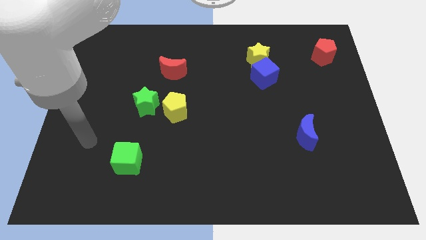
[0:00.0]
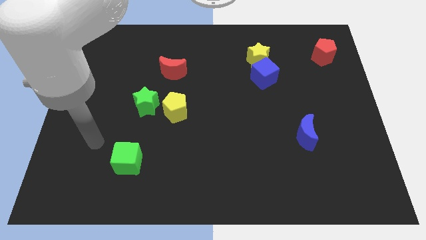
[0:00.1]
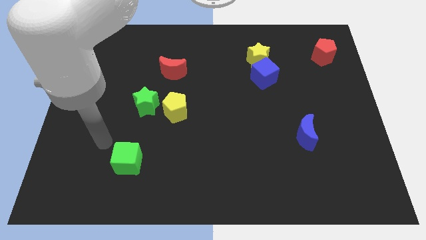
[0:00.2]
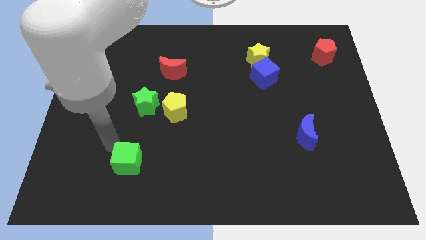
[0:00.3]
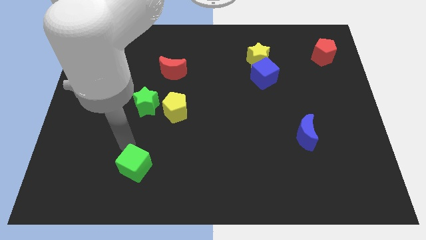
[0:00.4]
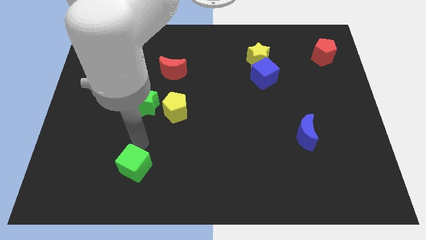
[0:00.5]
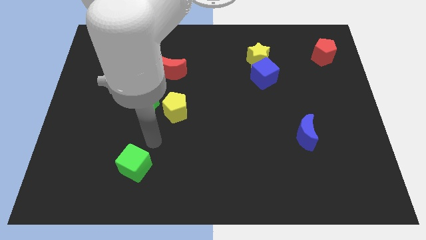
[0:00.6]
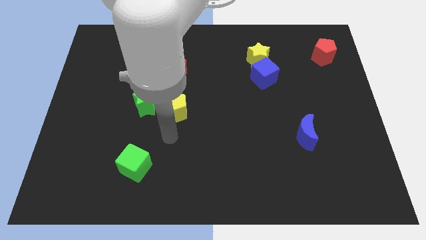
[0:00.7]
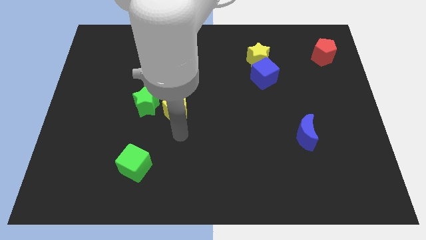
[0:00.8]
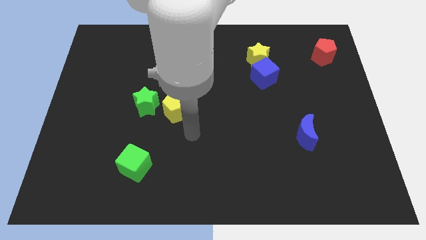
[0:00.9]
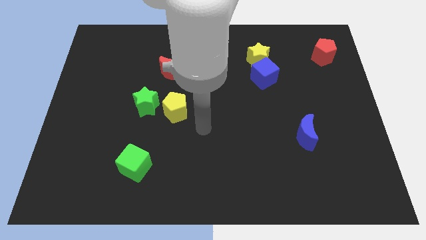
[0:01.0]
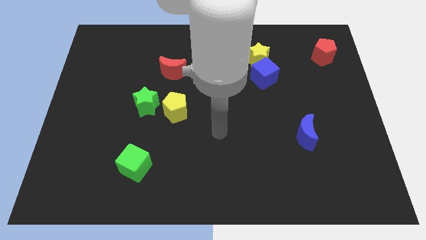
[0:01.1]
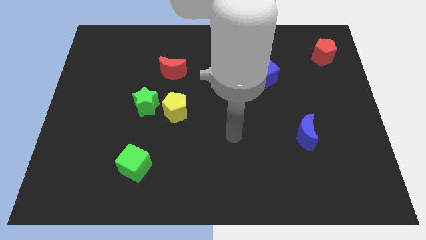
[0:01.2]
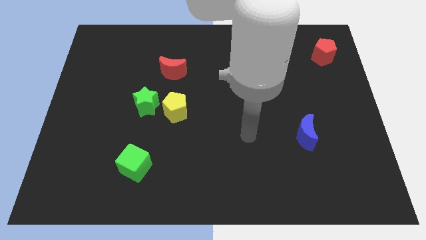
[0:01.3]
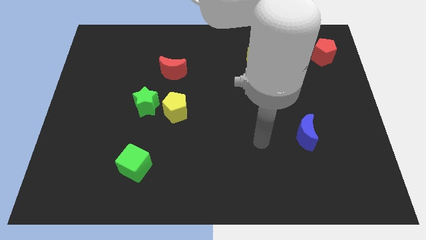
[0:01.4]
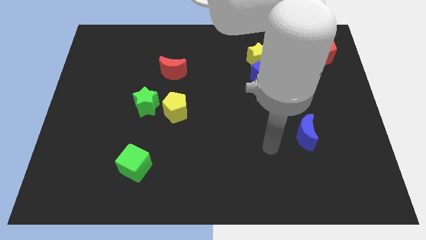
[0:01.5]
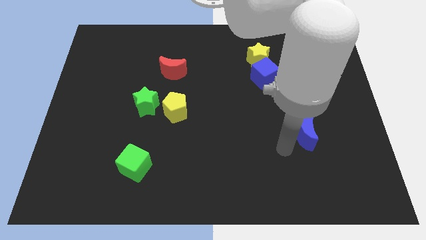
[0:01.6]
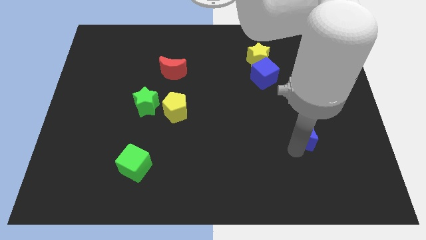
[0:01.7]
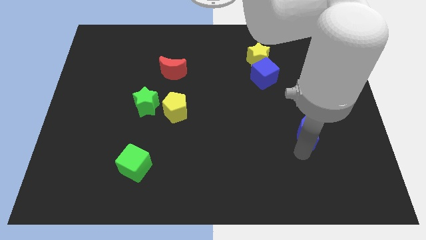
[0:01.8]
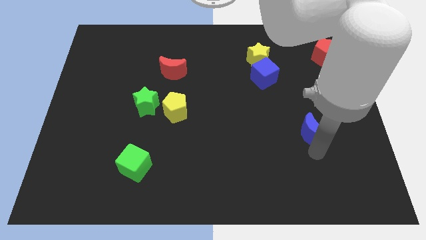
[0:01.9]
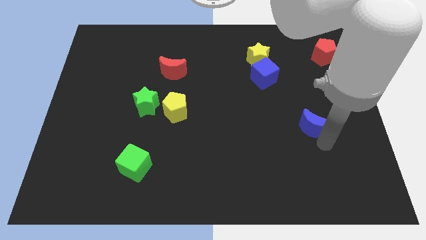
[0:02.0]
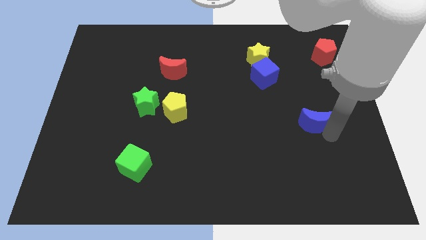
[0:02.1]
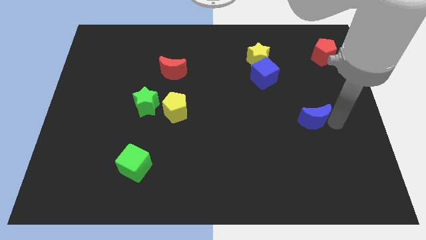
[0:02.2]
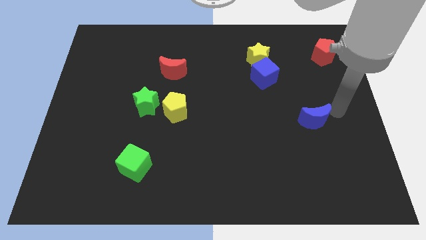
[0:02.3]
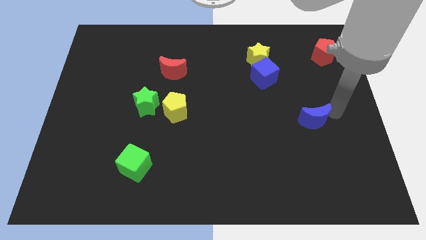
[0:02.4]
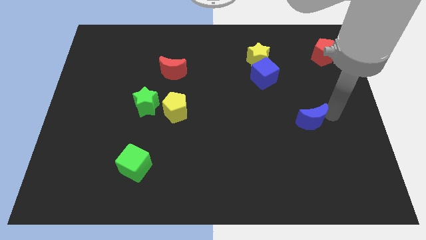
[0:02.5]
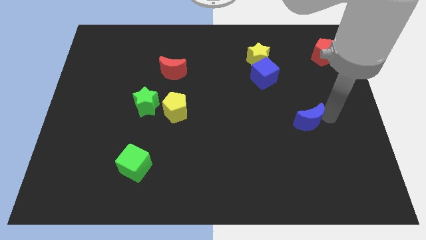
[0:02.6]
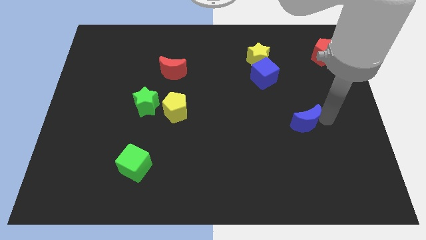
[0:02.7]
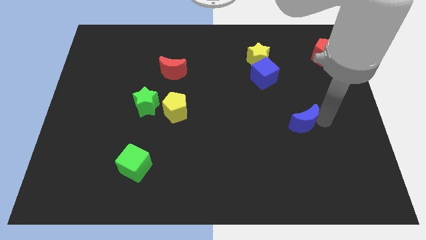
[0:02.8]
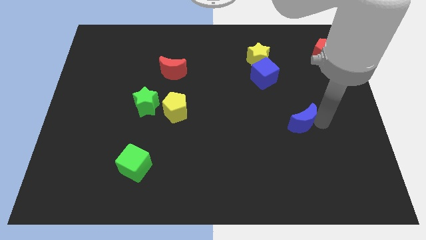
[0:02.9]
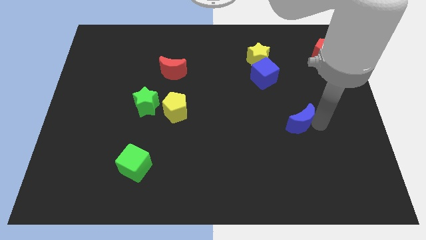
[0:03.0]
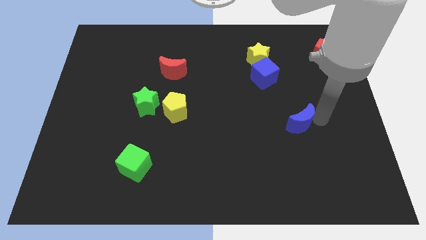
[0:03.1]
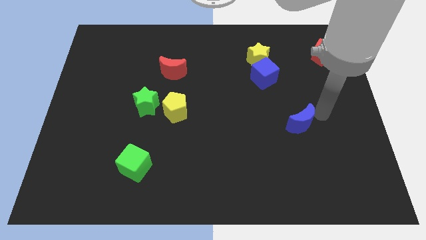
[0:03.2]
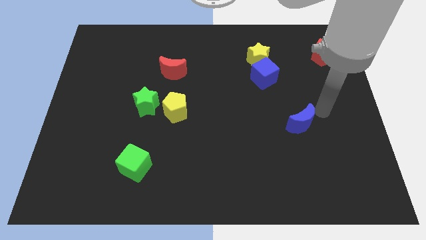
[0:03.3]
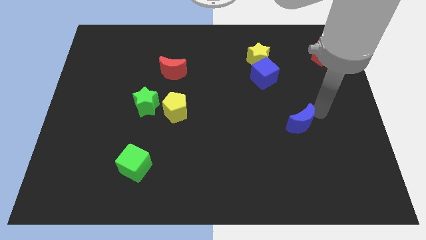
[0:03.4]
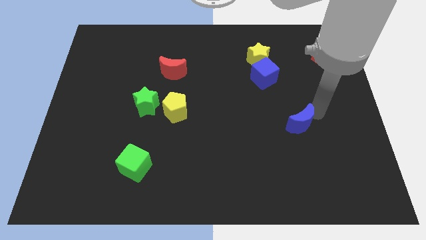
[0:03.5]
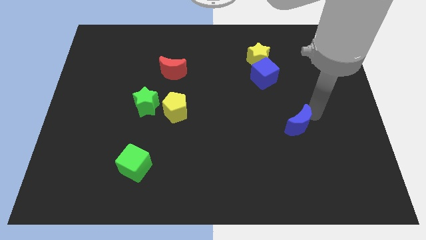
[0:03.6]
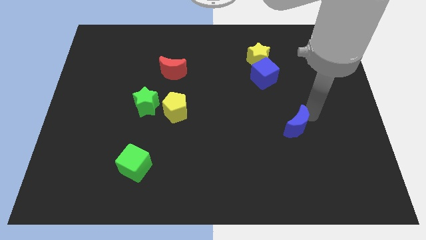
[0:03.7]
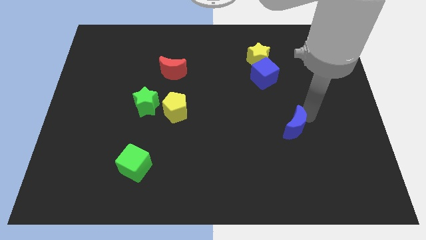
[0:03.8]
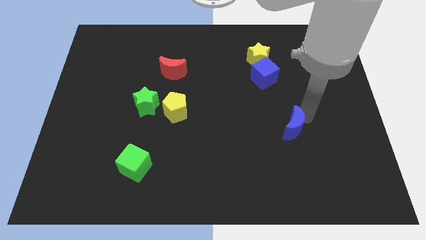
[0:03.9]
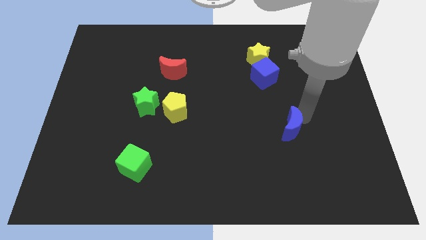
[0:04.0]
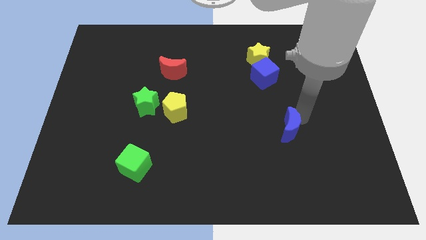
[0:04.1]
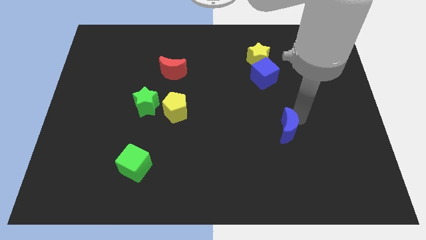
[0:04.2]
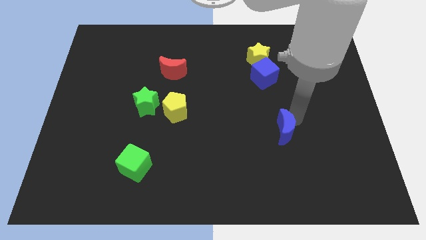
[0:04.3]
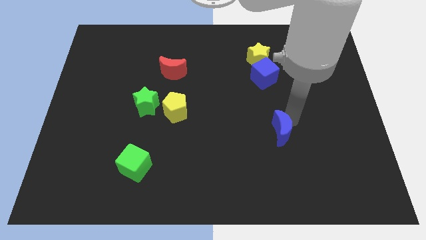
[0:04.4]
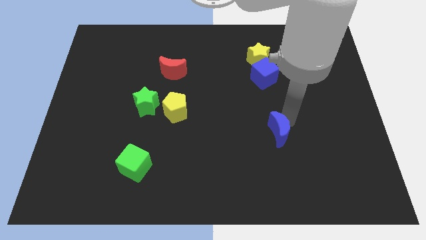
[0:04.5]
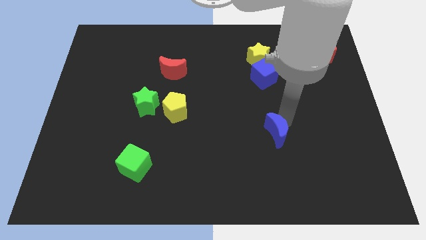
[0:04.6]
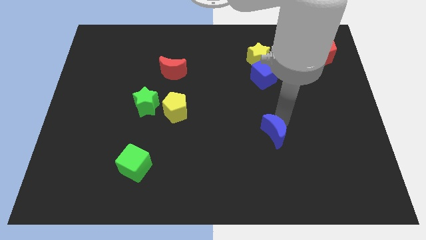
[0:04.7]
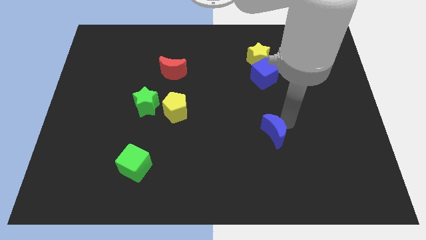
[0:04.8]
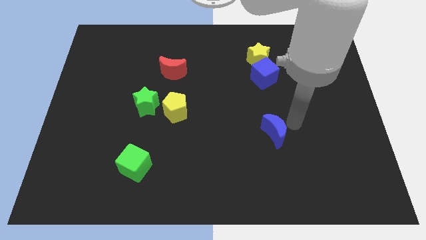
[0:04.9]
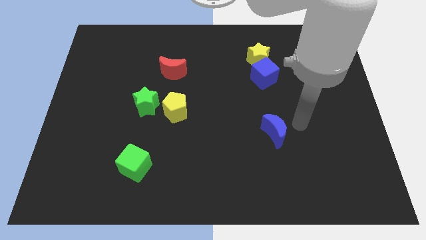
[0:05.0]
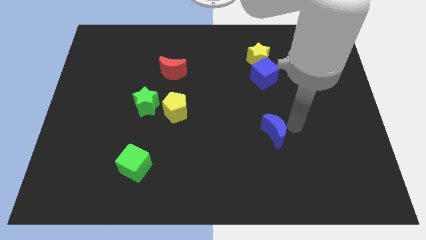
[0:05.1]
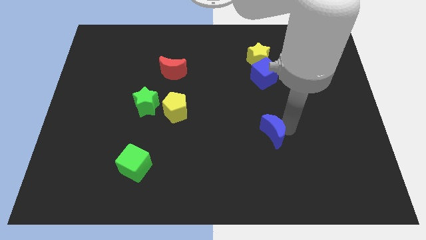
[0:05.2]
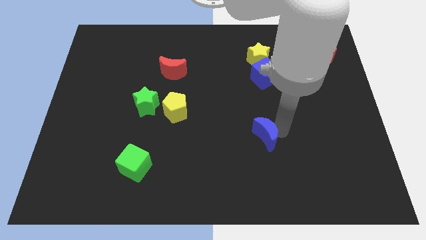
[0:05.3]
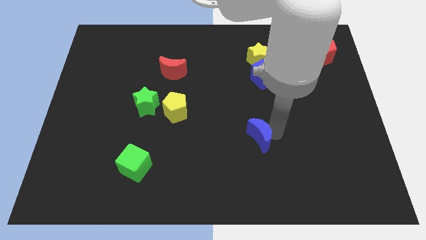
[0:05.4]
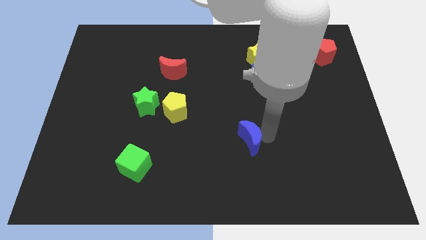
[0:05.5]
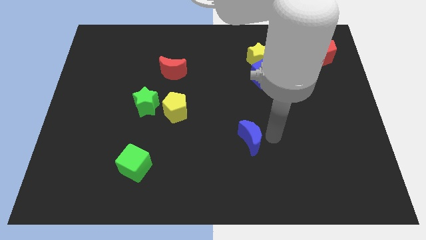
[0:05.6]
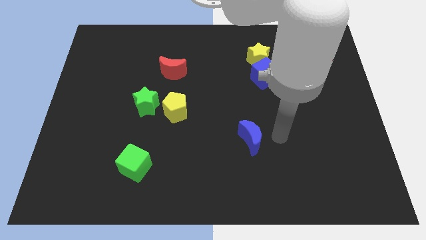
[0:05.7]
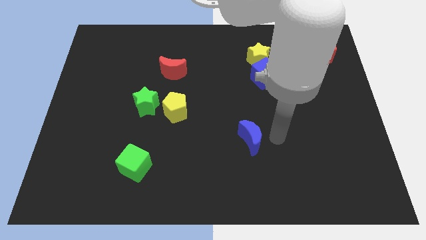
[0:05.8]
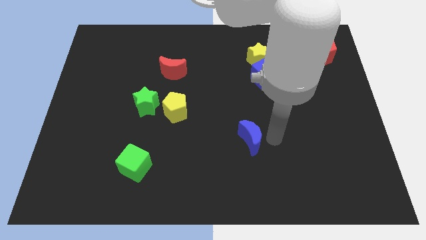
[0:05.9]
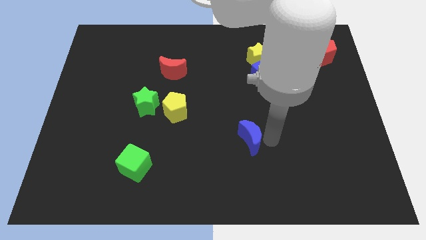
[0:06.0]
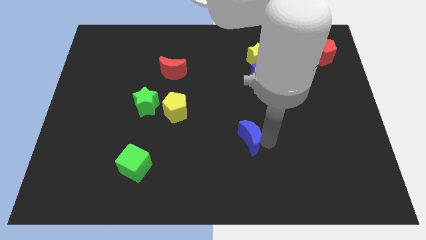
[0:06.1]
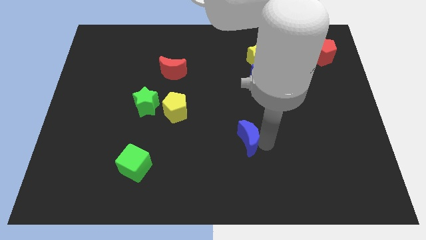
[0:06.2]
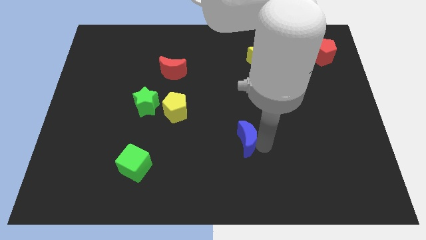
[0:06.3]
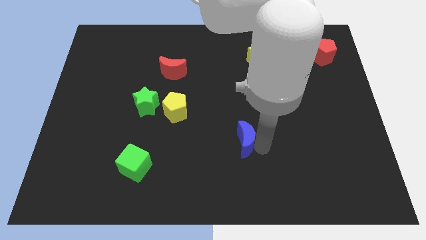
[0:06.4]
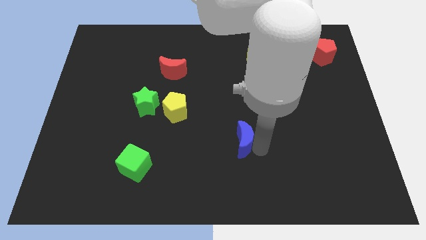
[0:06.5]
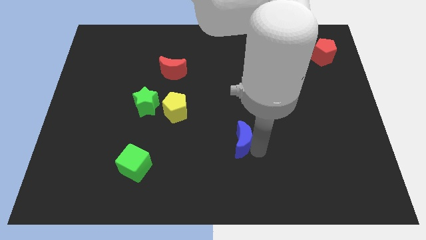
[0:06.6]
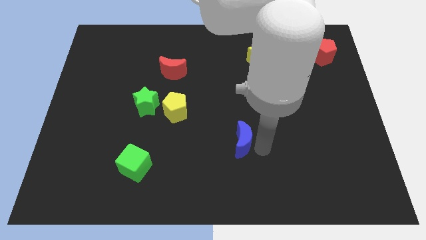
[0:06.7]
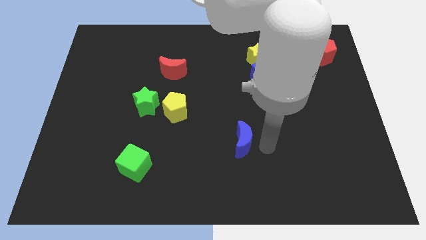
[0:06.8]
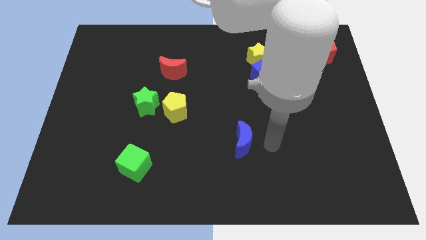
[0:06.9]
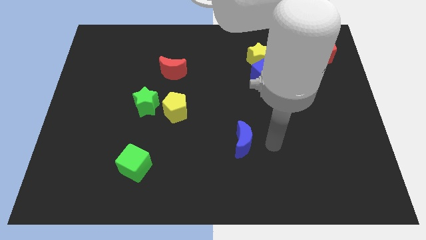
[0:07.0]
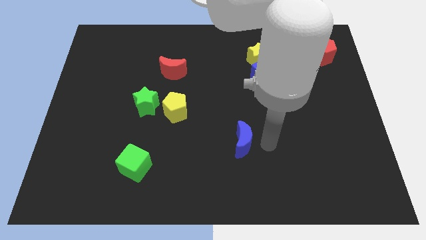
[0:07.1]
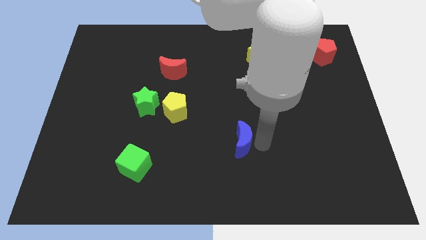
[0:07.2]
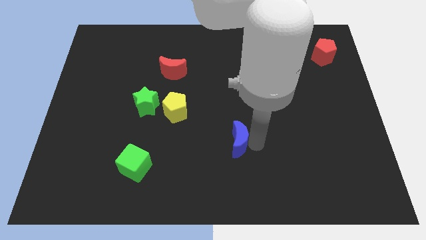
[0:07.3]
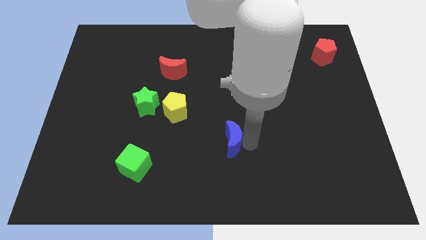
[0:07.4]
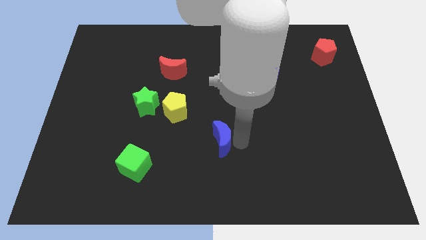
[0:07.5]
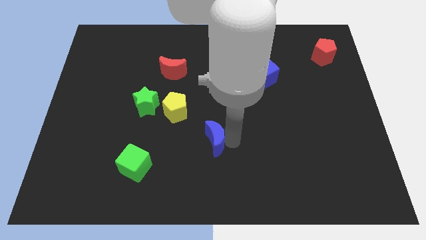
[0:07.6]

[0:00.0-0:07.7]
slide the blue moon left
